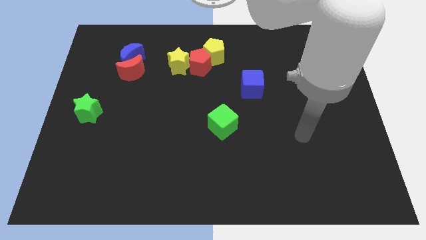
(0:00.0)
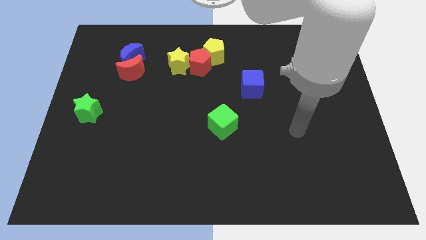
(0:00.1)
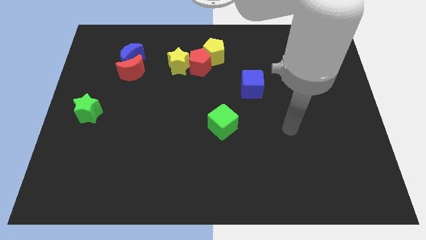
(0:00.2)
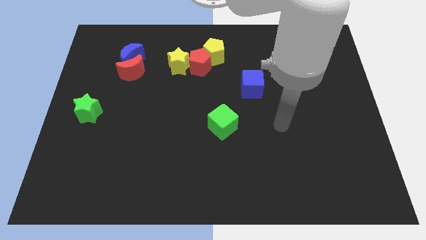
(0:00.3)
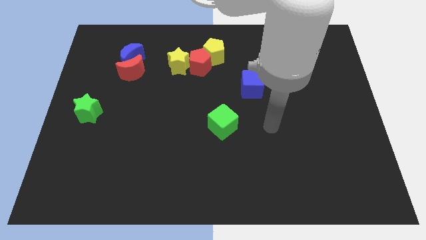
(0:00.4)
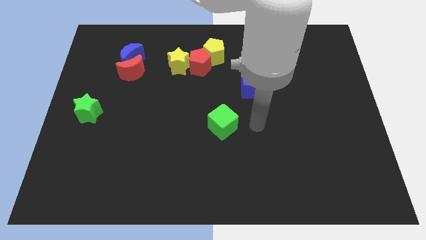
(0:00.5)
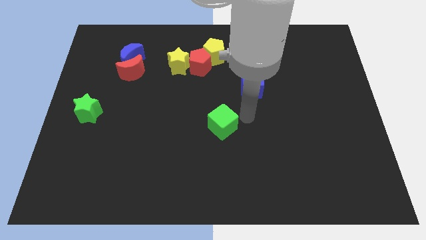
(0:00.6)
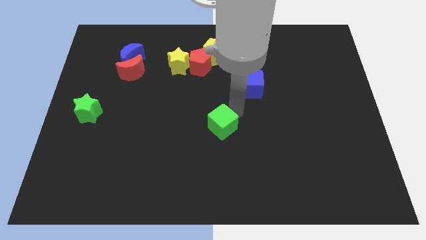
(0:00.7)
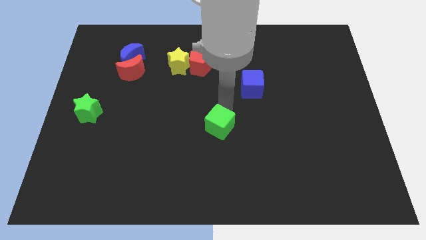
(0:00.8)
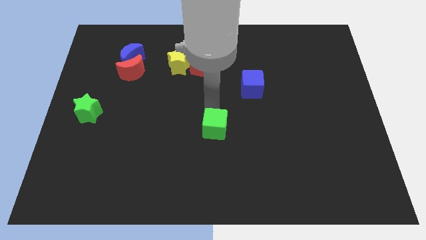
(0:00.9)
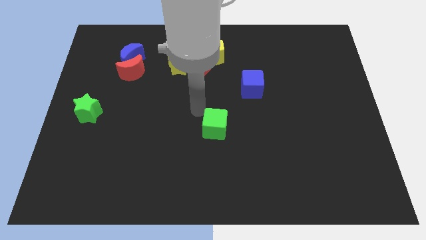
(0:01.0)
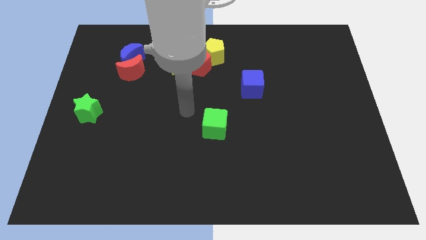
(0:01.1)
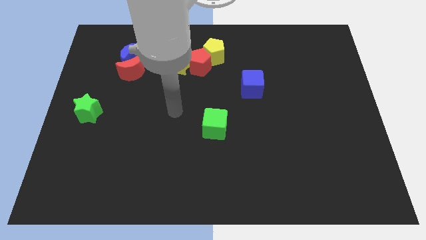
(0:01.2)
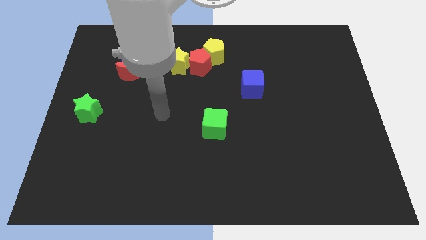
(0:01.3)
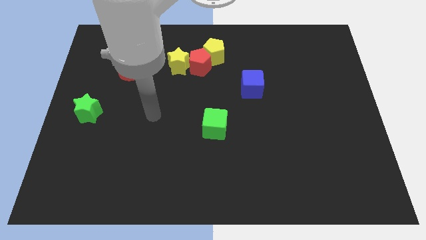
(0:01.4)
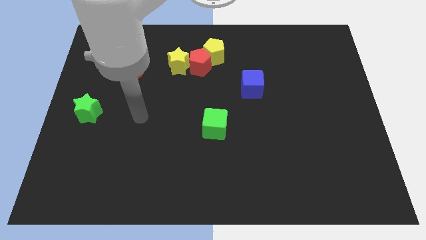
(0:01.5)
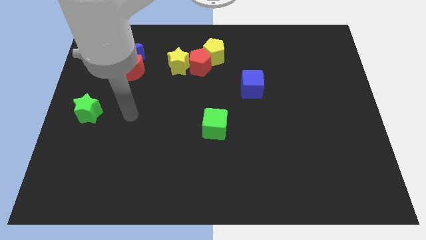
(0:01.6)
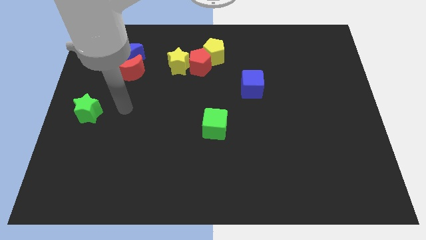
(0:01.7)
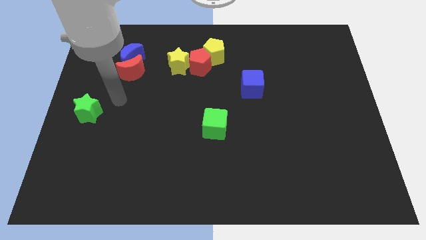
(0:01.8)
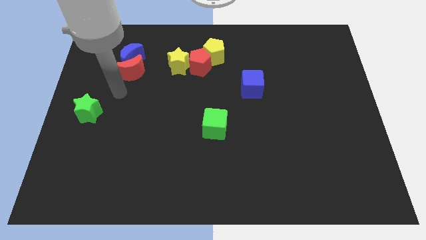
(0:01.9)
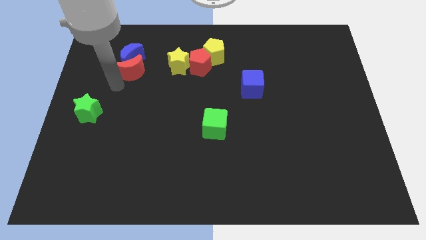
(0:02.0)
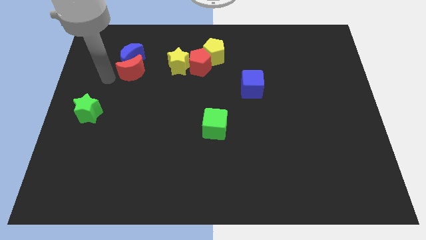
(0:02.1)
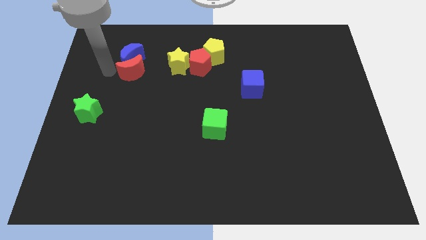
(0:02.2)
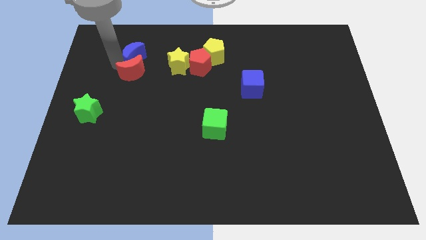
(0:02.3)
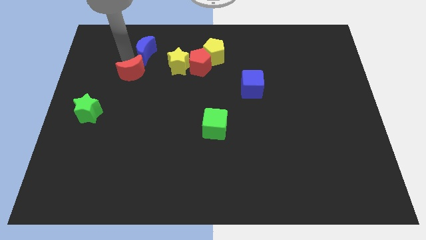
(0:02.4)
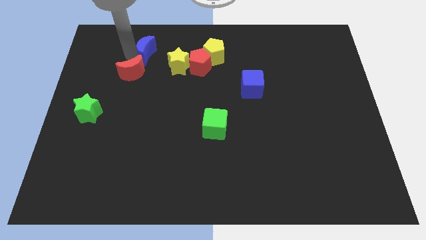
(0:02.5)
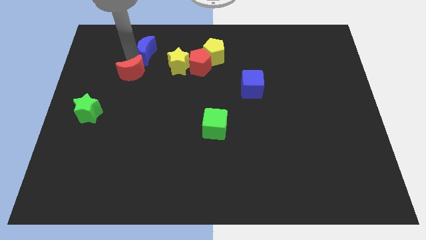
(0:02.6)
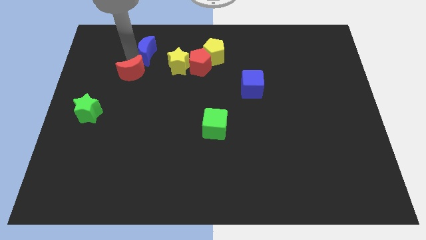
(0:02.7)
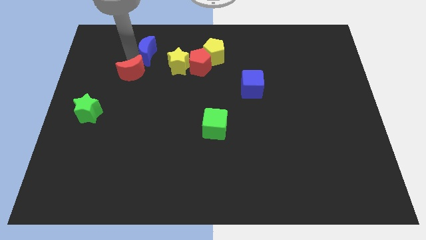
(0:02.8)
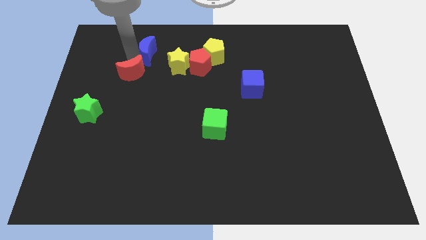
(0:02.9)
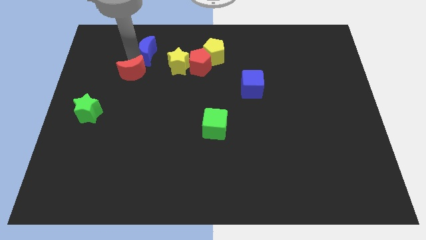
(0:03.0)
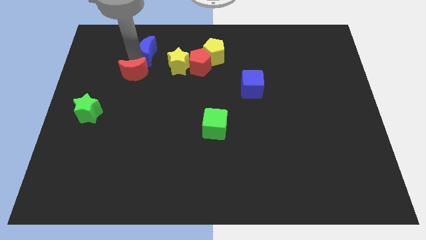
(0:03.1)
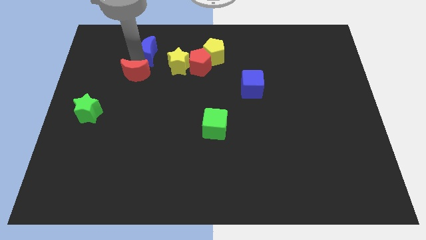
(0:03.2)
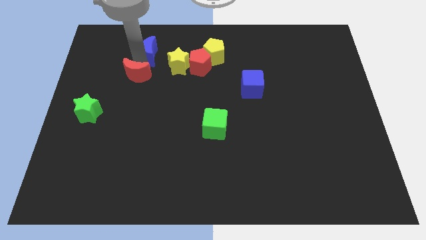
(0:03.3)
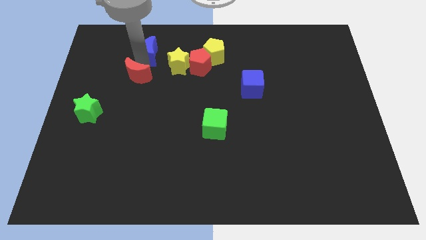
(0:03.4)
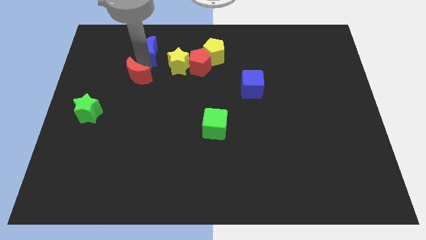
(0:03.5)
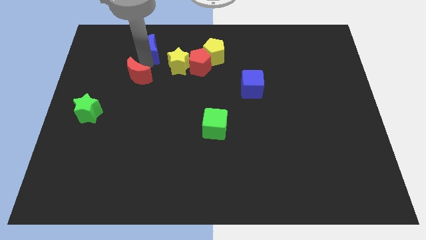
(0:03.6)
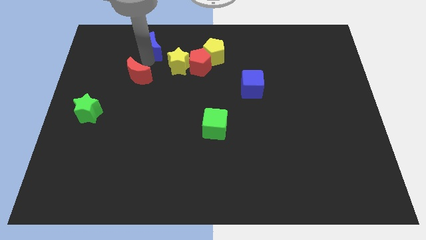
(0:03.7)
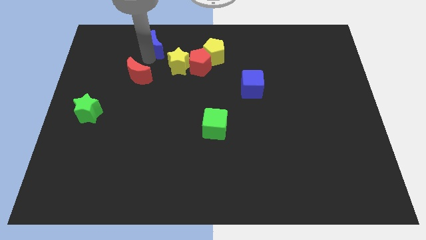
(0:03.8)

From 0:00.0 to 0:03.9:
move the red moon away from the blue moon

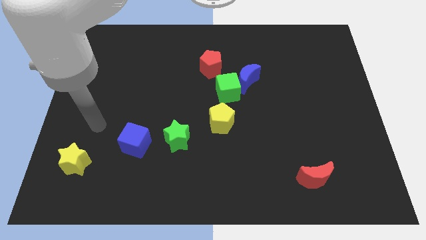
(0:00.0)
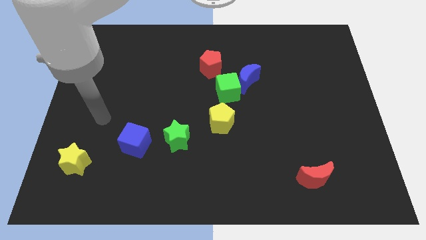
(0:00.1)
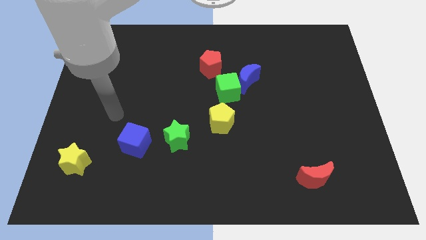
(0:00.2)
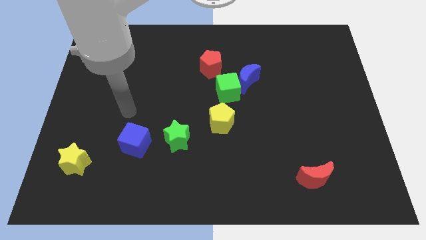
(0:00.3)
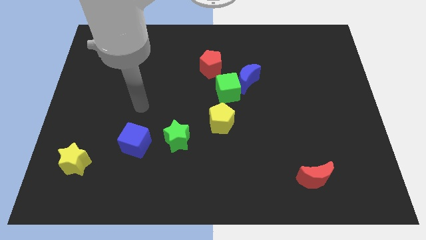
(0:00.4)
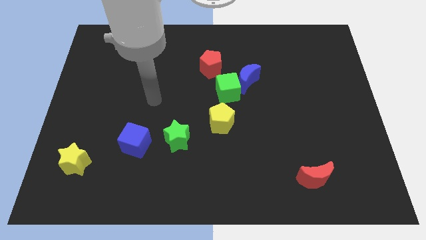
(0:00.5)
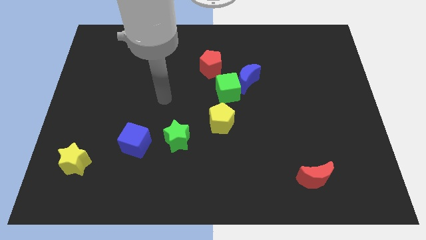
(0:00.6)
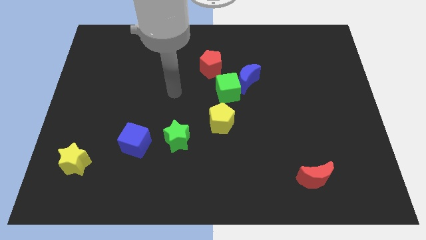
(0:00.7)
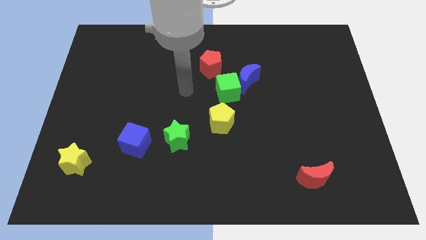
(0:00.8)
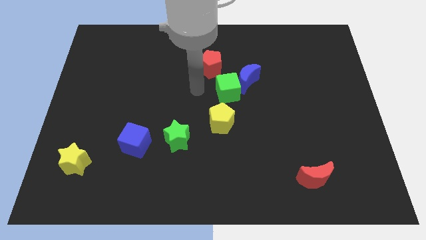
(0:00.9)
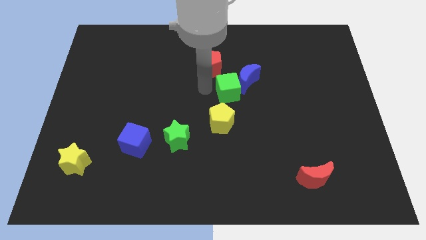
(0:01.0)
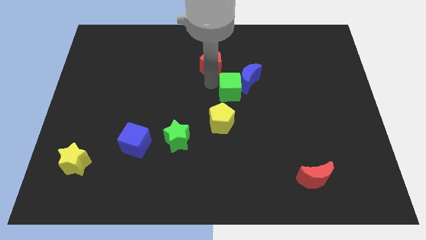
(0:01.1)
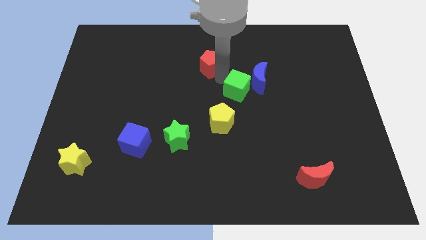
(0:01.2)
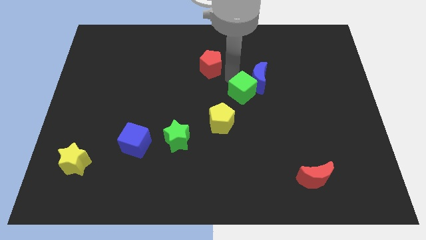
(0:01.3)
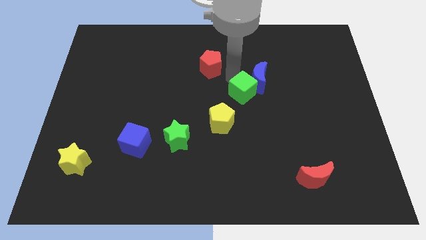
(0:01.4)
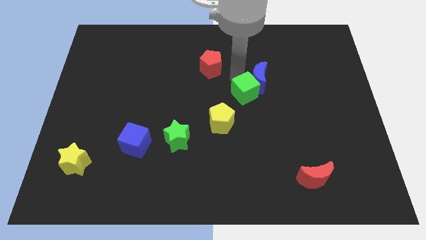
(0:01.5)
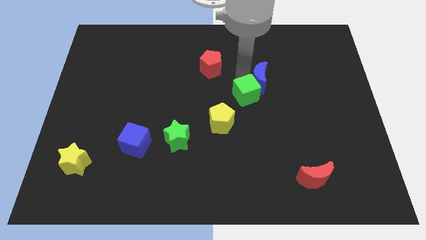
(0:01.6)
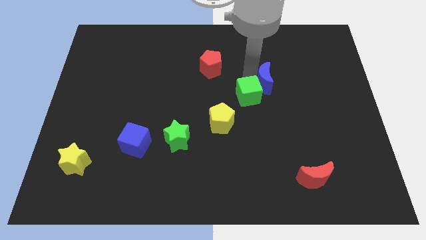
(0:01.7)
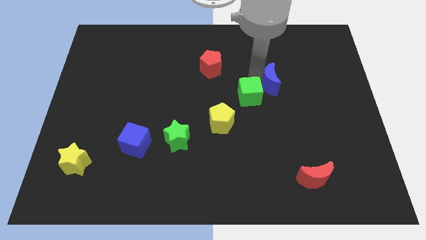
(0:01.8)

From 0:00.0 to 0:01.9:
move the blue moon away from the green cube and red pentagon

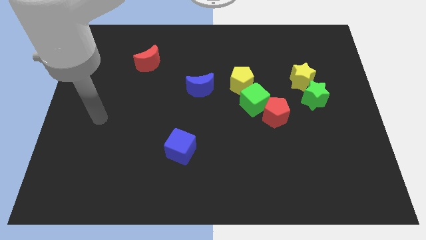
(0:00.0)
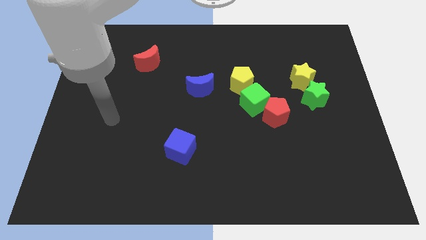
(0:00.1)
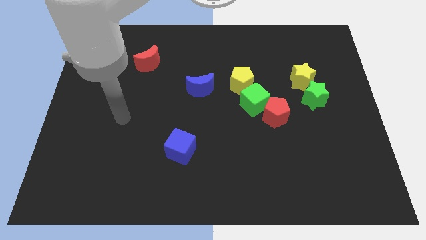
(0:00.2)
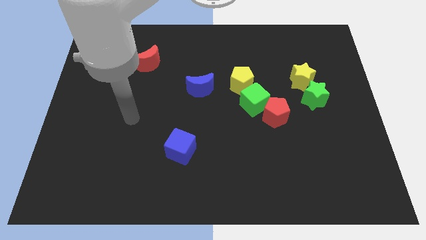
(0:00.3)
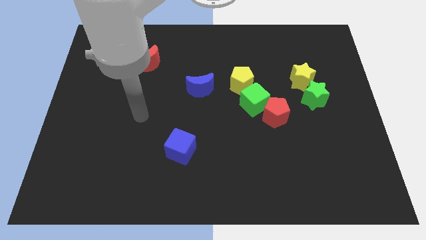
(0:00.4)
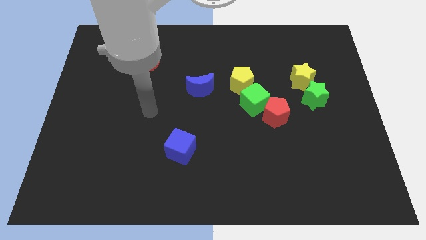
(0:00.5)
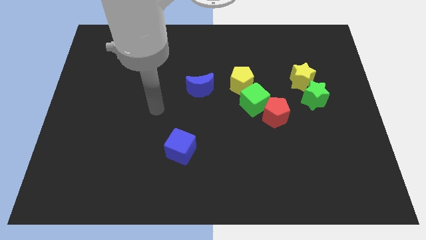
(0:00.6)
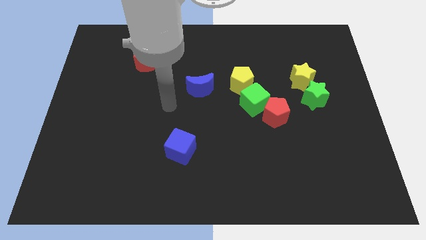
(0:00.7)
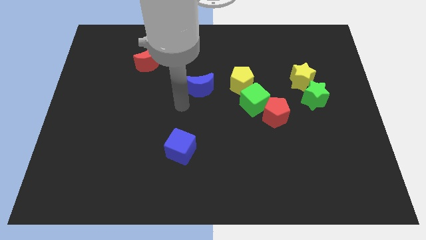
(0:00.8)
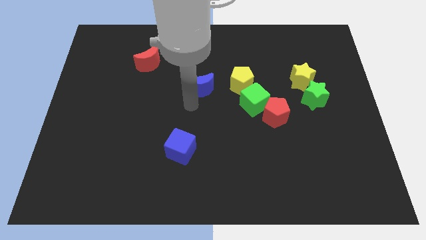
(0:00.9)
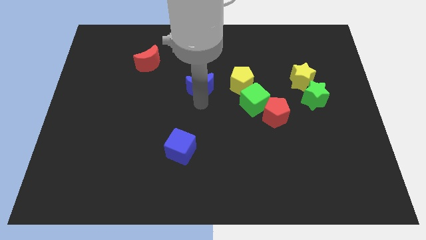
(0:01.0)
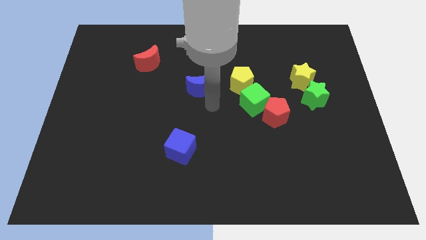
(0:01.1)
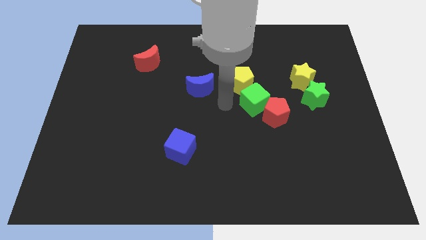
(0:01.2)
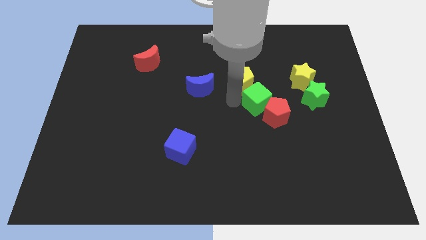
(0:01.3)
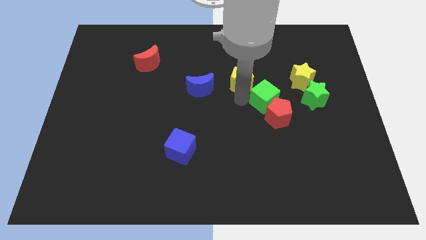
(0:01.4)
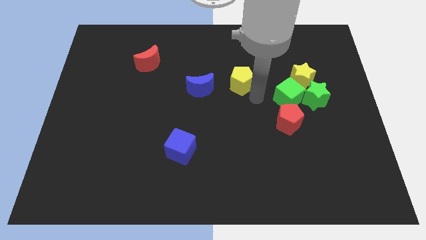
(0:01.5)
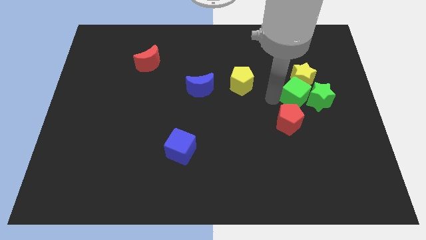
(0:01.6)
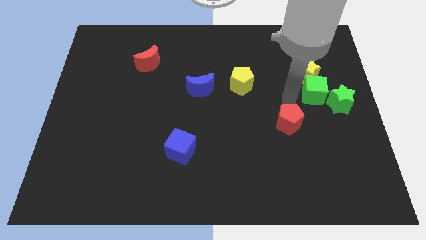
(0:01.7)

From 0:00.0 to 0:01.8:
pull the red pentagon apart from the green cube

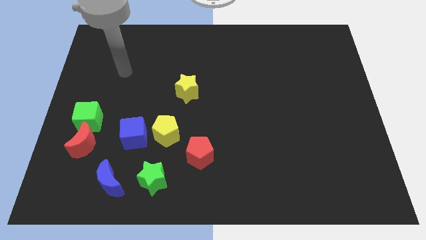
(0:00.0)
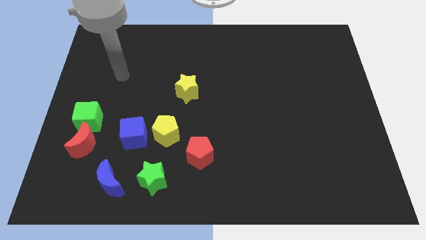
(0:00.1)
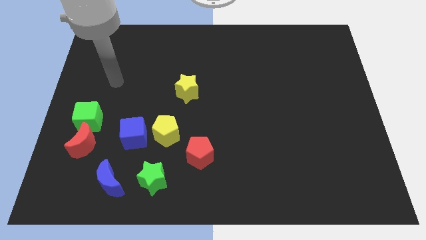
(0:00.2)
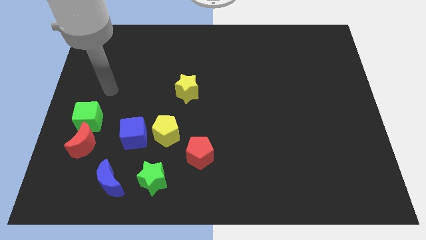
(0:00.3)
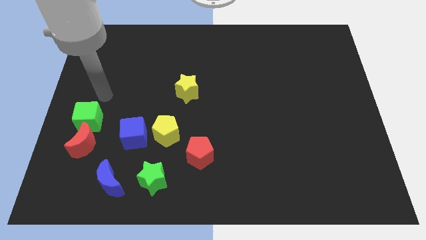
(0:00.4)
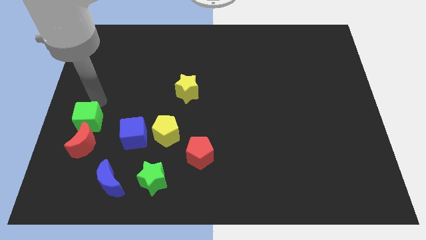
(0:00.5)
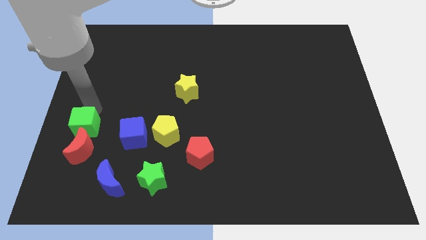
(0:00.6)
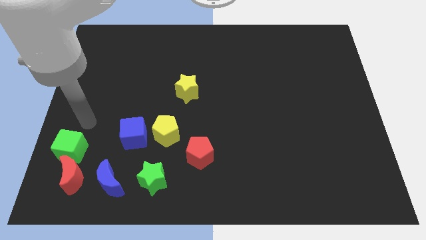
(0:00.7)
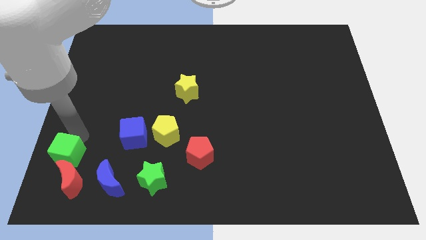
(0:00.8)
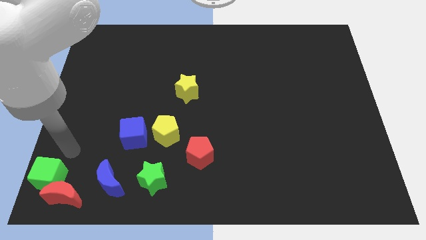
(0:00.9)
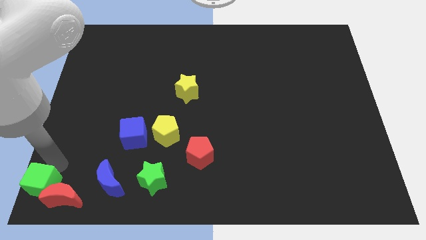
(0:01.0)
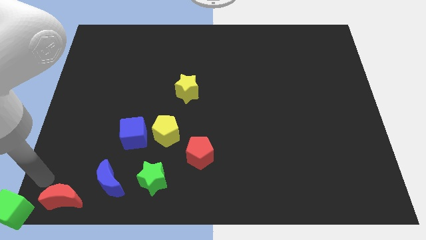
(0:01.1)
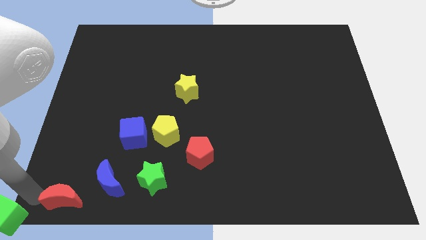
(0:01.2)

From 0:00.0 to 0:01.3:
separate the red moon from the green cube

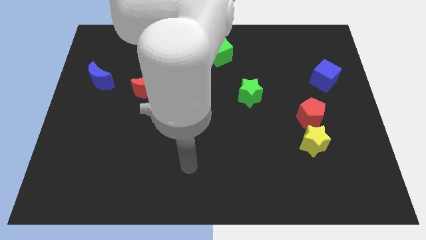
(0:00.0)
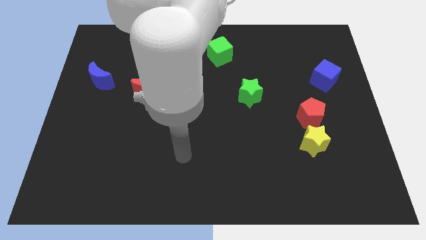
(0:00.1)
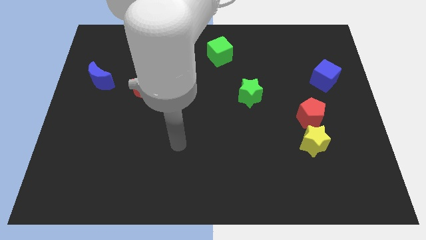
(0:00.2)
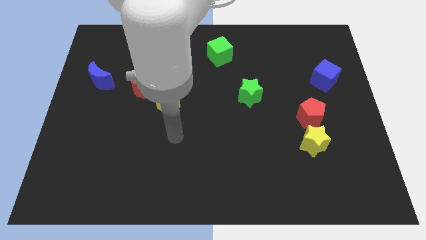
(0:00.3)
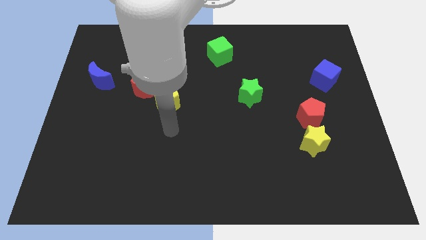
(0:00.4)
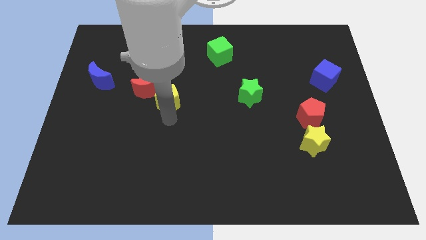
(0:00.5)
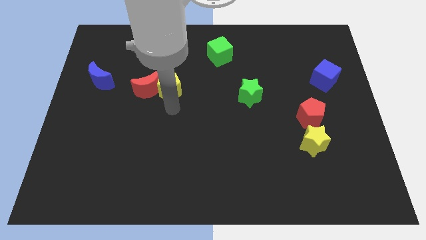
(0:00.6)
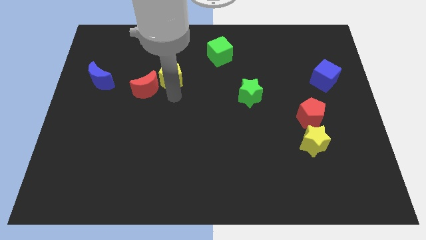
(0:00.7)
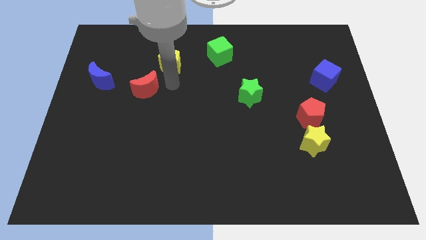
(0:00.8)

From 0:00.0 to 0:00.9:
move the red moon away from the yellow pentagon
